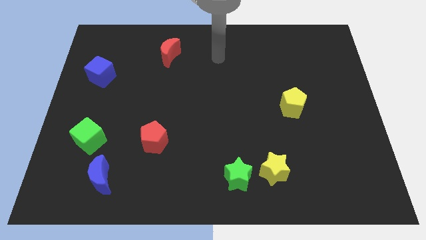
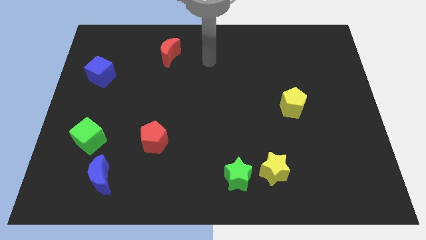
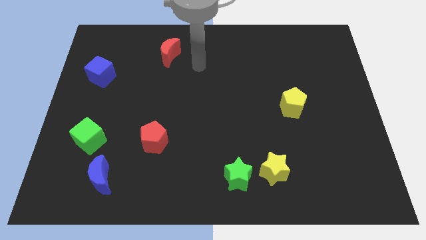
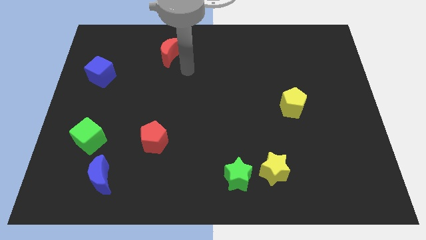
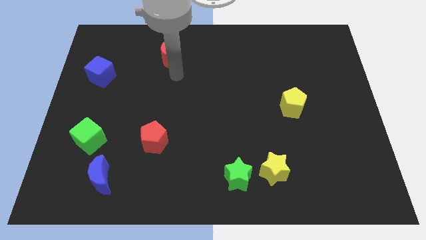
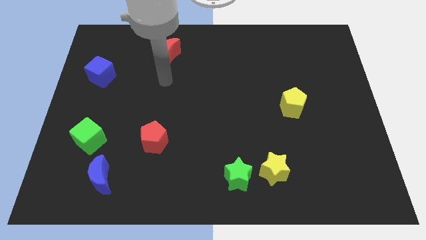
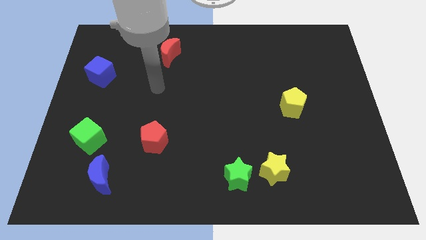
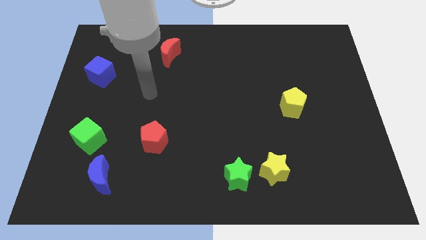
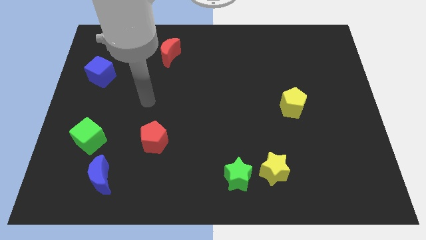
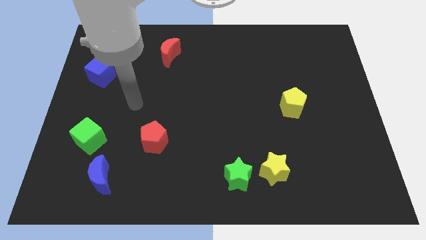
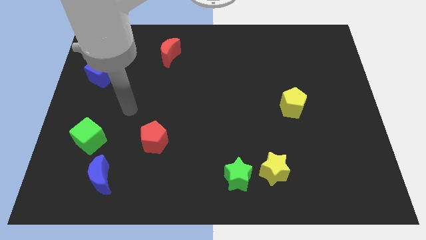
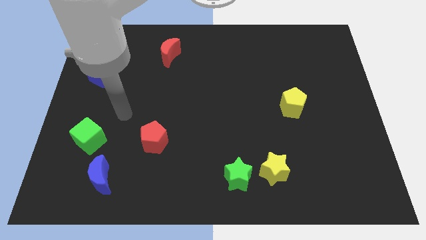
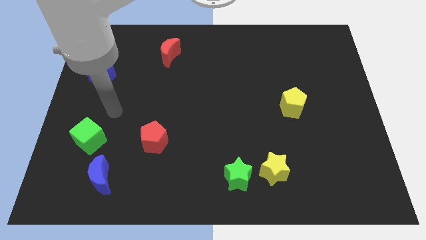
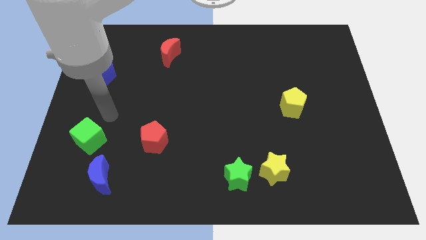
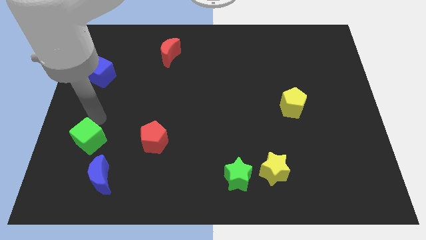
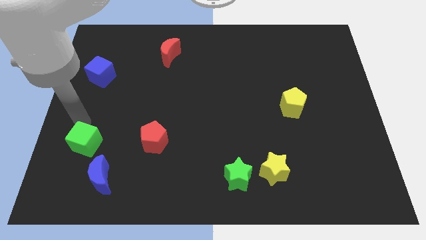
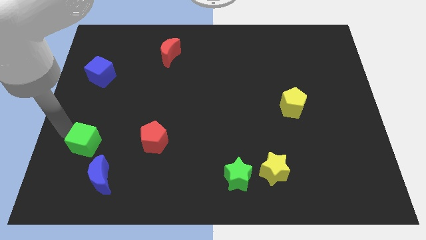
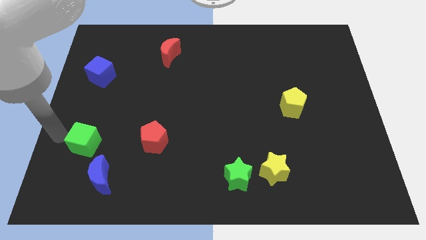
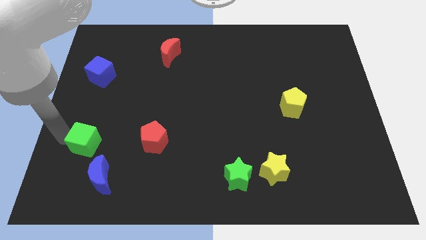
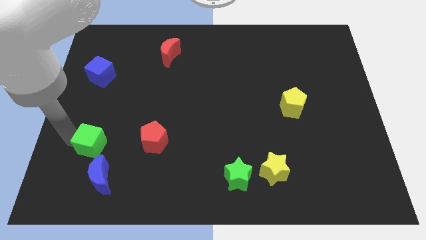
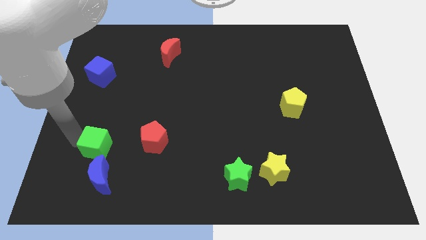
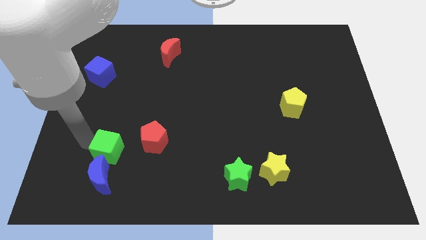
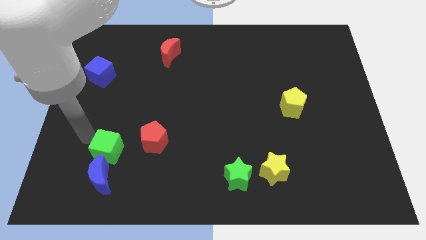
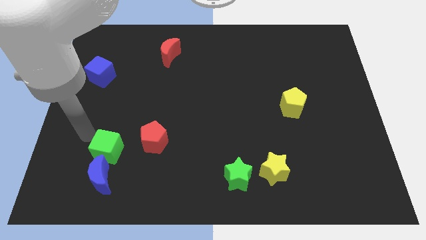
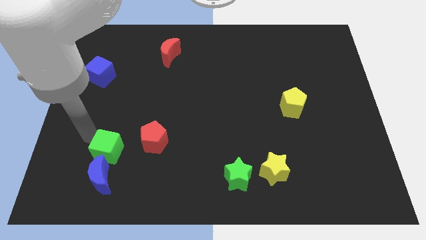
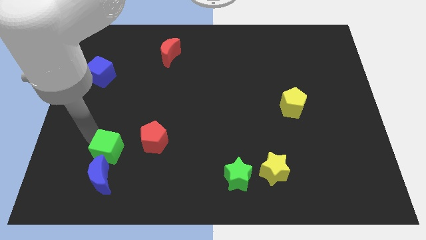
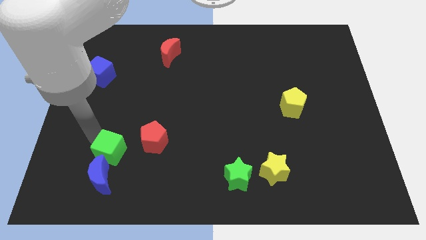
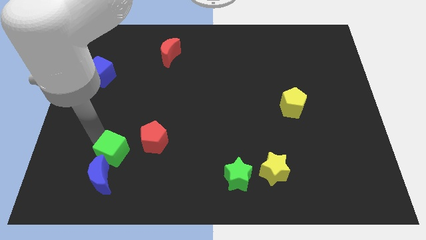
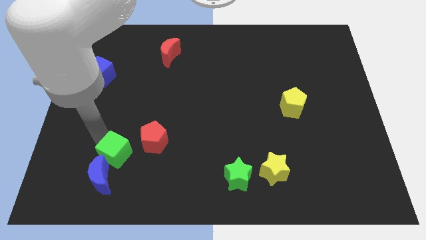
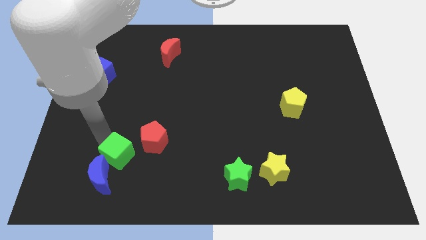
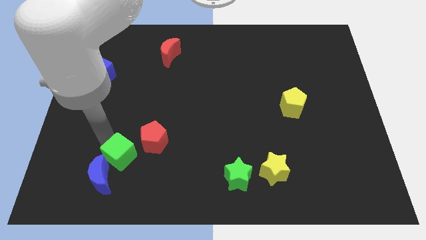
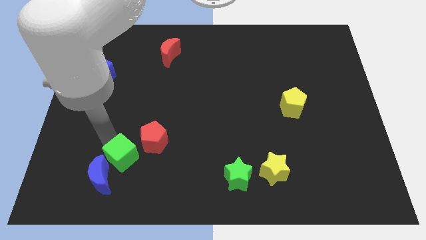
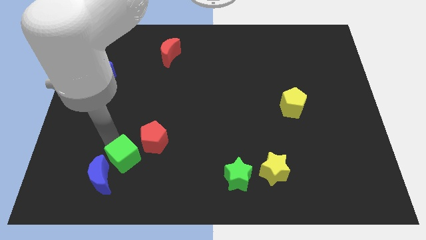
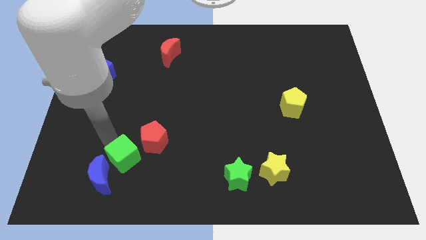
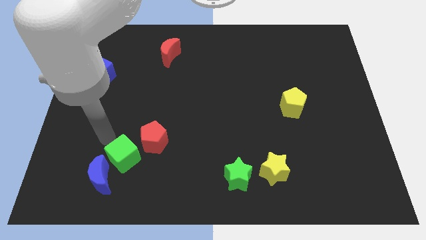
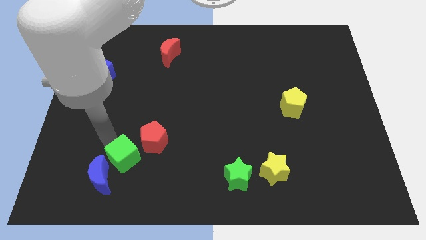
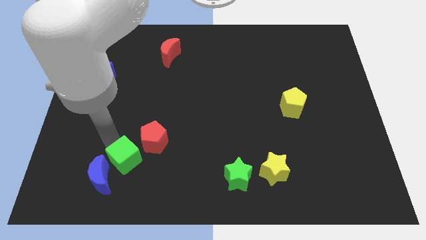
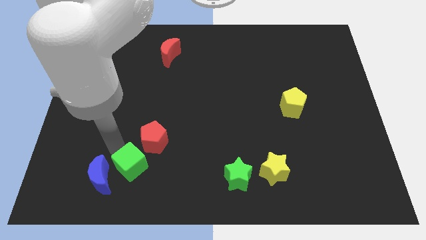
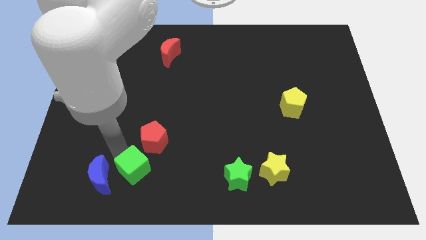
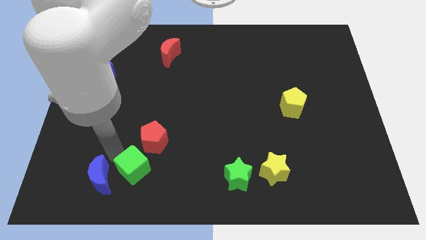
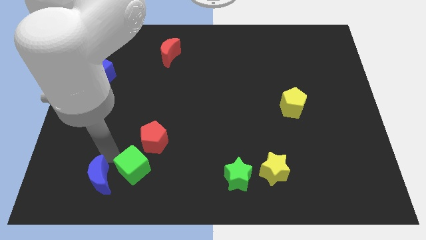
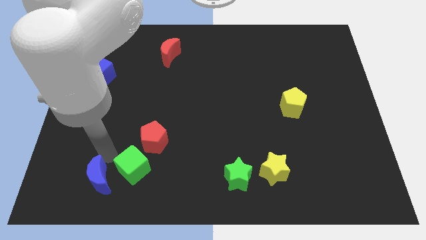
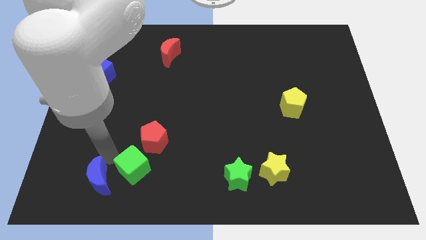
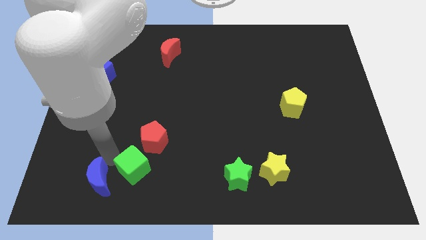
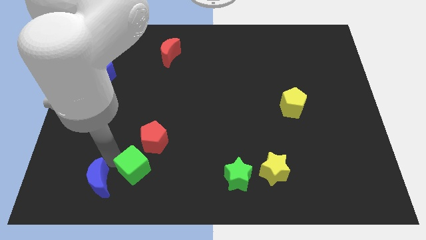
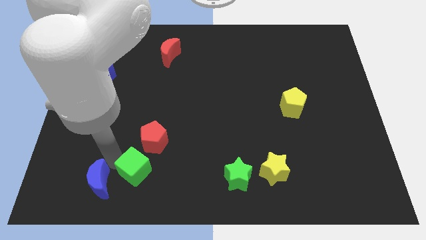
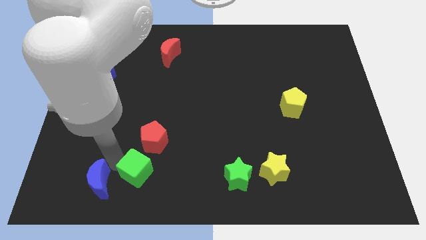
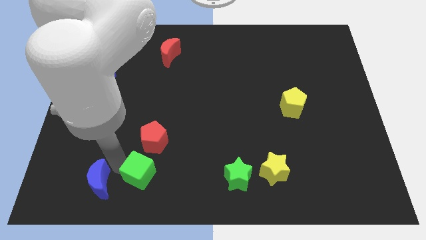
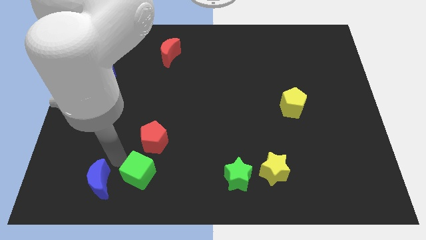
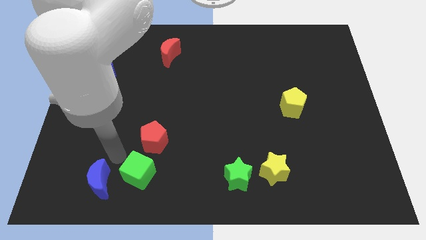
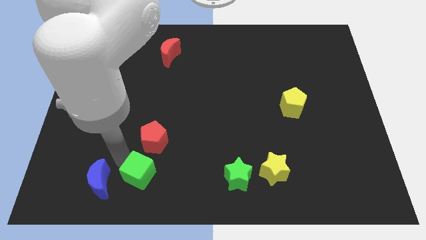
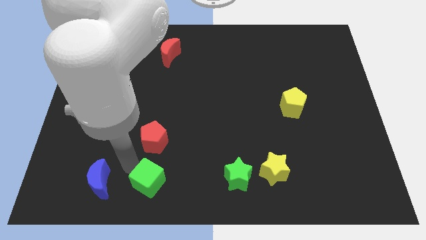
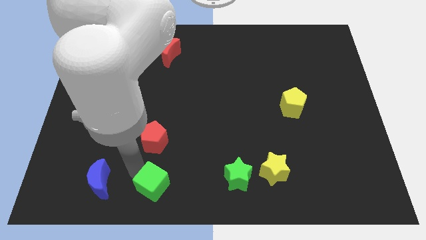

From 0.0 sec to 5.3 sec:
move the green cube to the bottom side

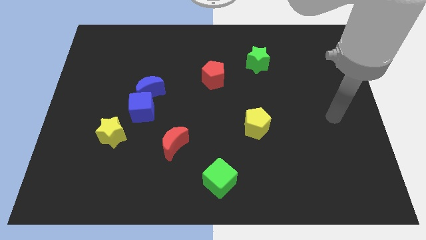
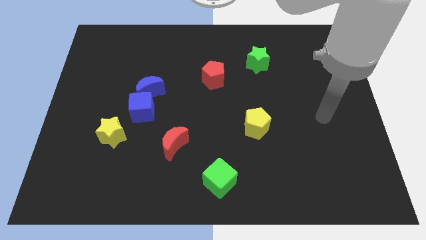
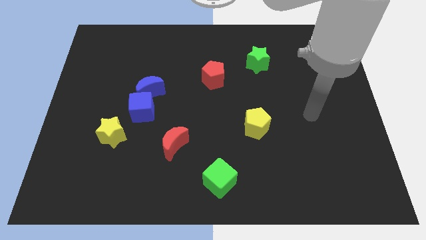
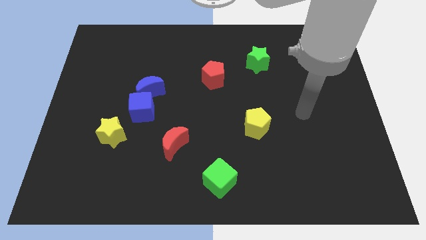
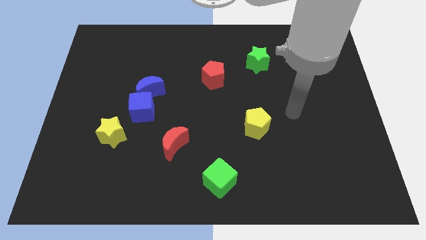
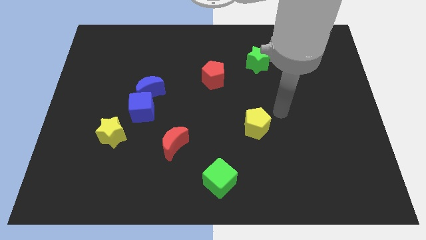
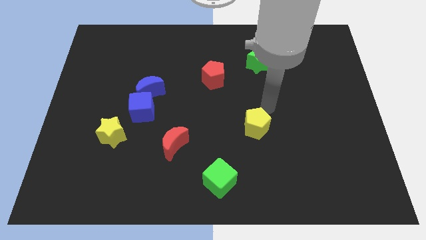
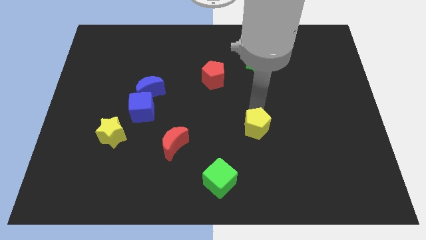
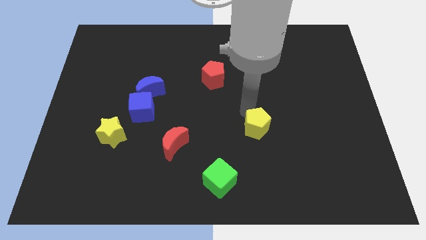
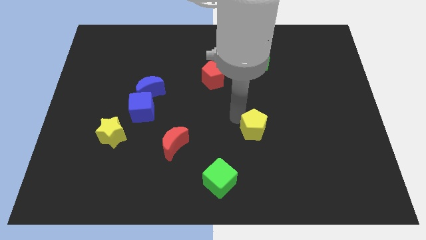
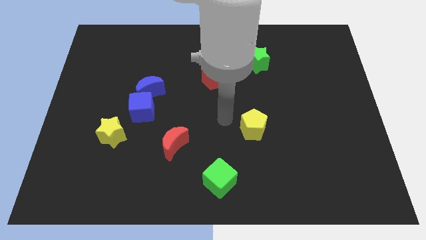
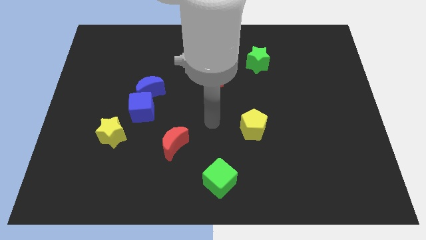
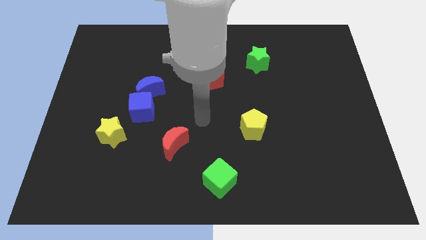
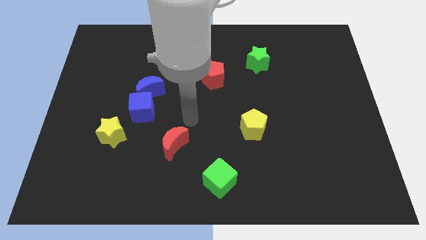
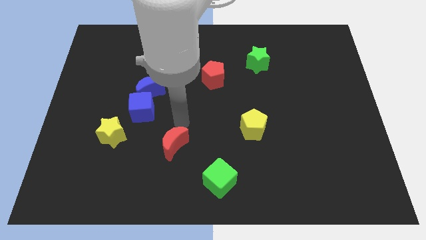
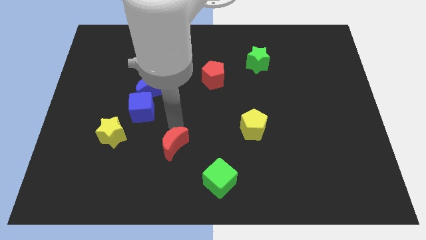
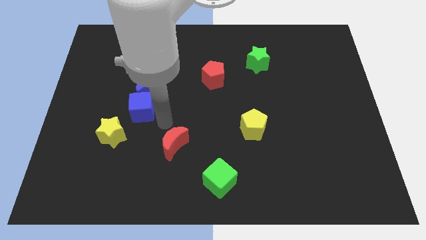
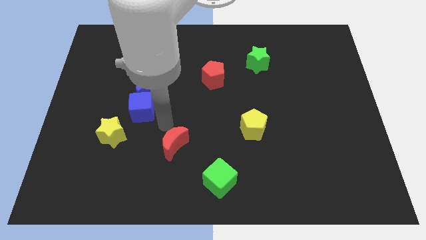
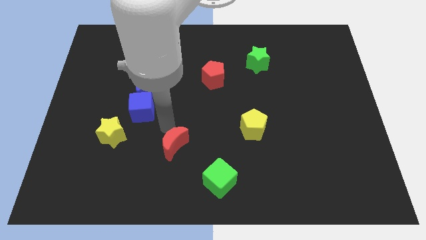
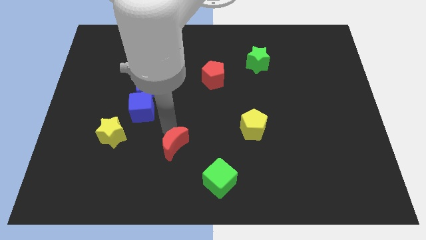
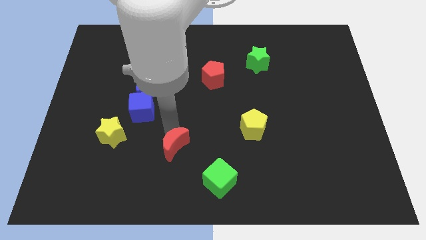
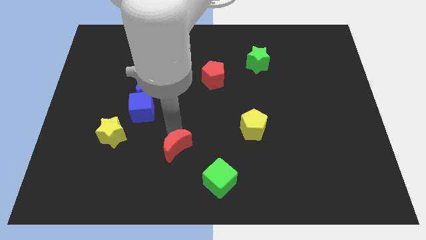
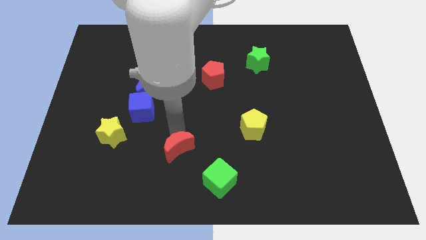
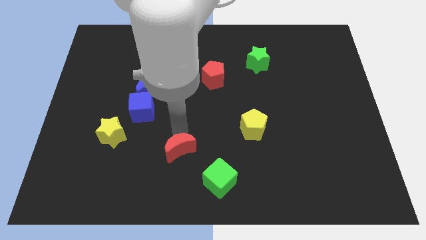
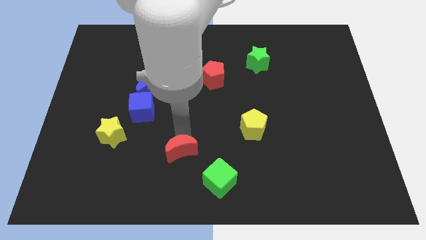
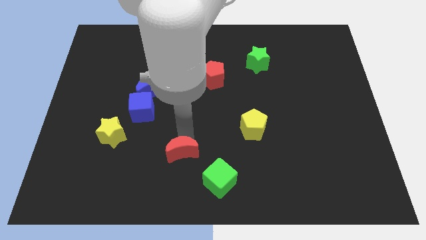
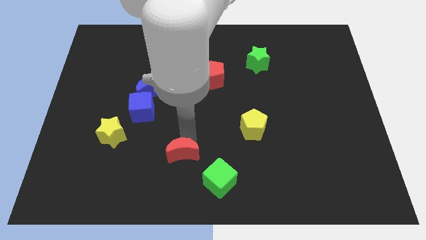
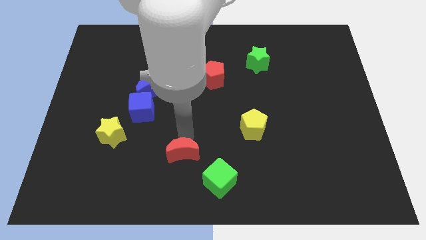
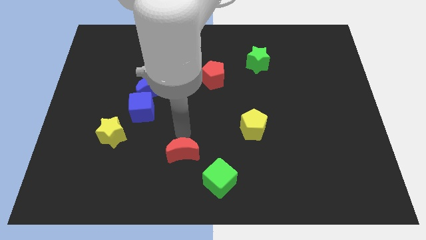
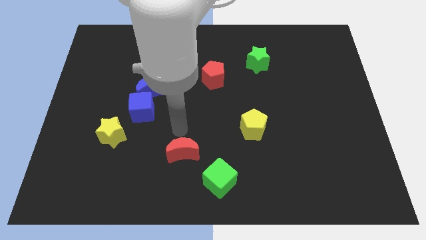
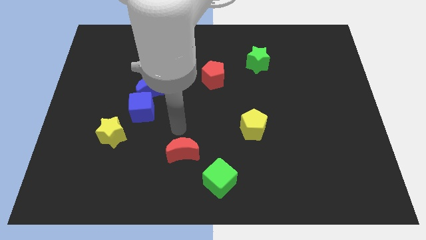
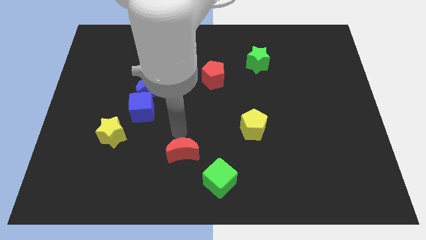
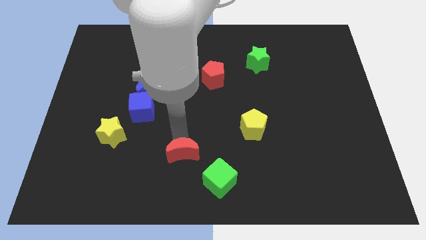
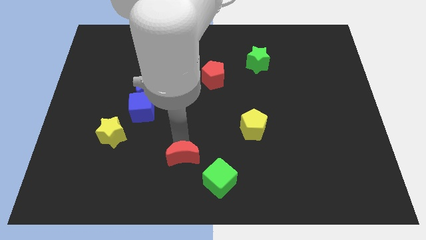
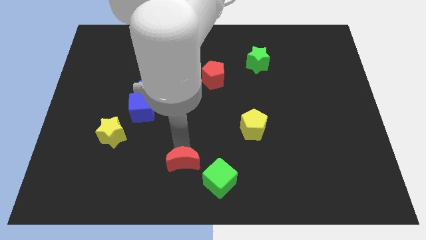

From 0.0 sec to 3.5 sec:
move the red moon to the bottom side
